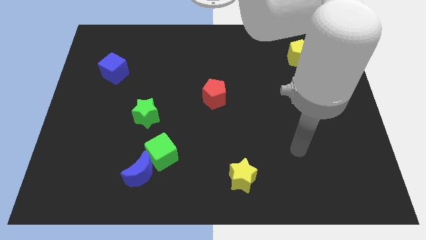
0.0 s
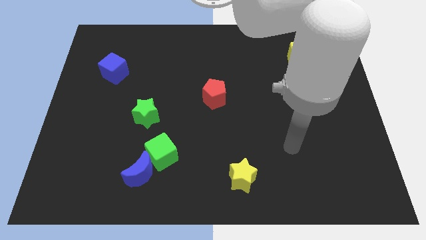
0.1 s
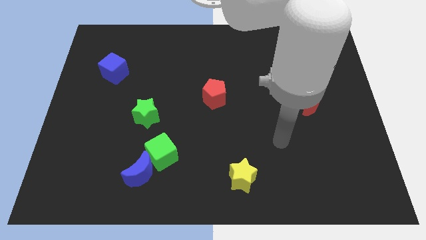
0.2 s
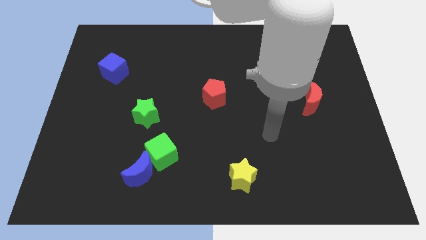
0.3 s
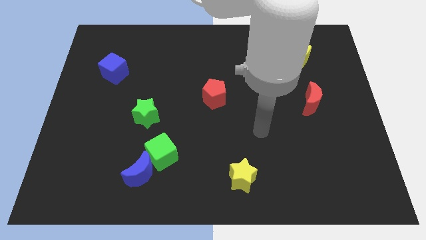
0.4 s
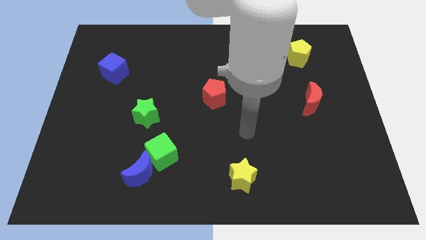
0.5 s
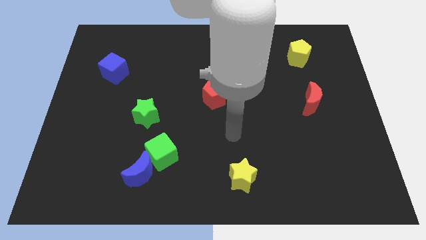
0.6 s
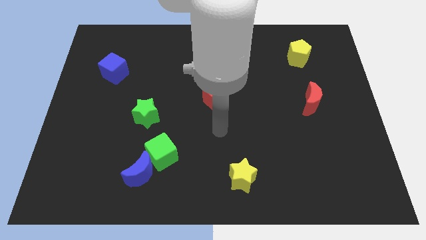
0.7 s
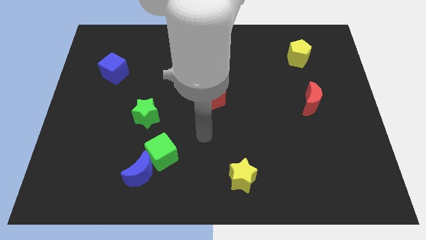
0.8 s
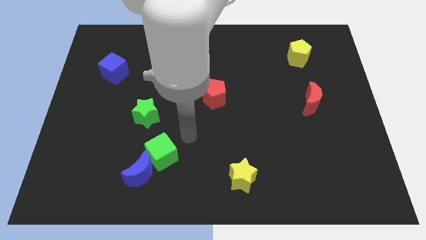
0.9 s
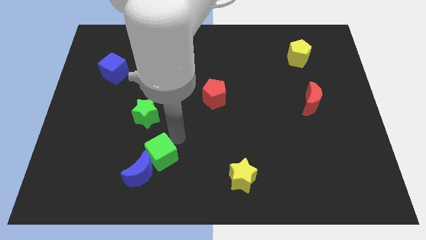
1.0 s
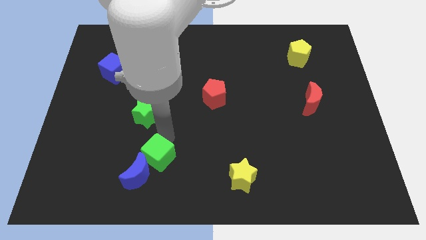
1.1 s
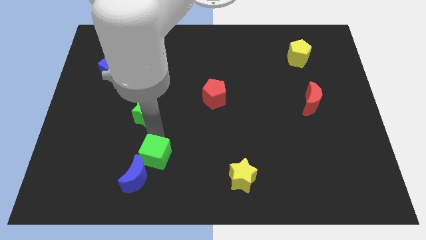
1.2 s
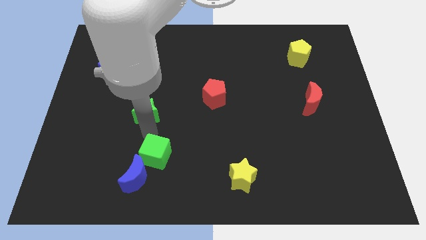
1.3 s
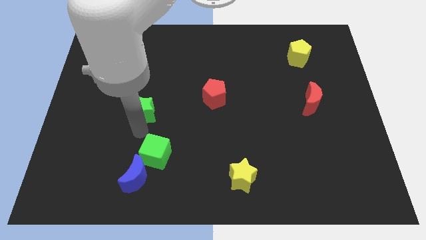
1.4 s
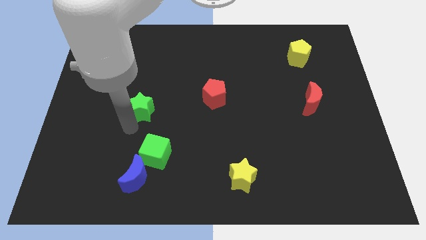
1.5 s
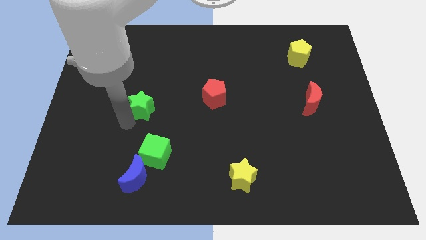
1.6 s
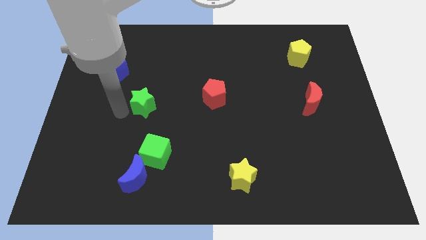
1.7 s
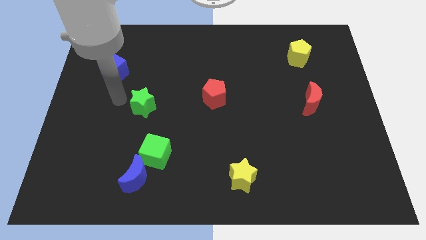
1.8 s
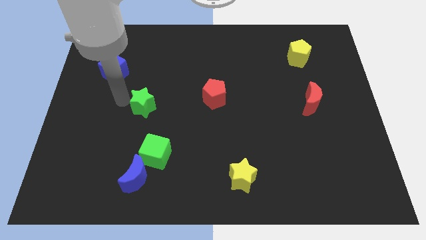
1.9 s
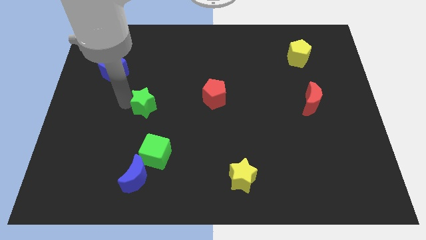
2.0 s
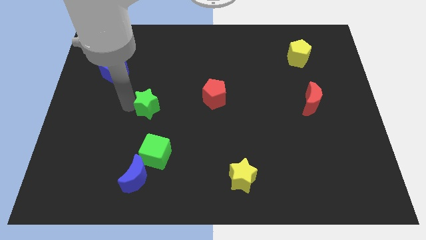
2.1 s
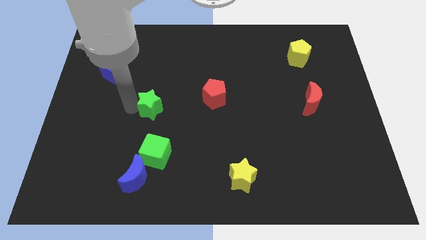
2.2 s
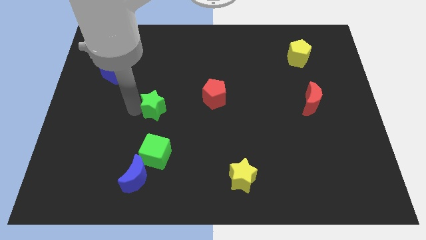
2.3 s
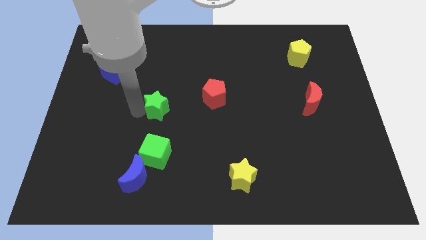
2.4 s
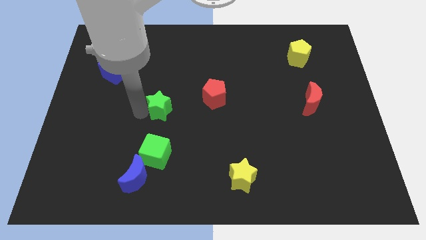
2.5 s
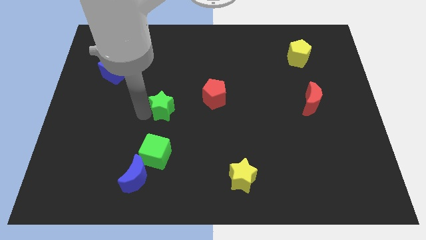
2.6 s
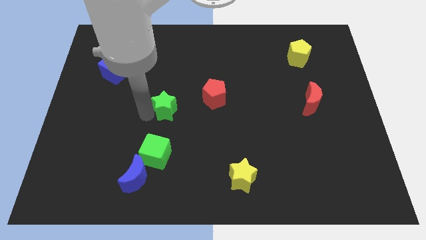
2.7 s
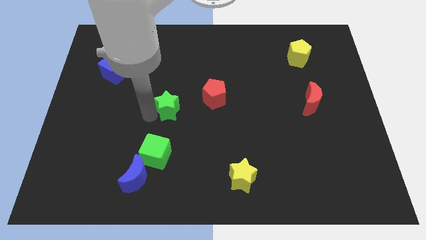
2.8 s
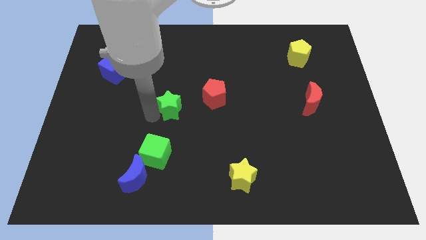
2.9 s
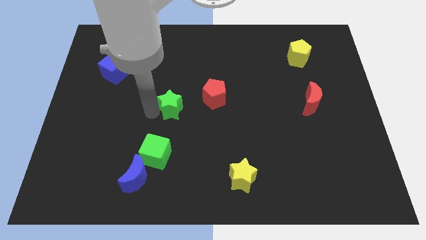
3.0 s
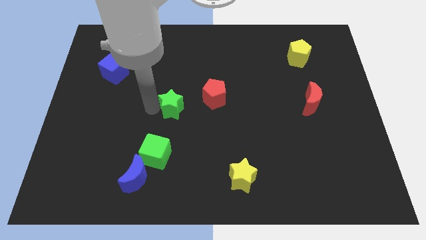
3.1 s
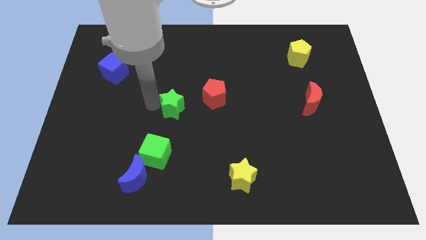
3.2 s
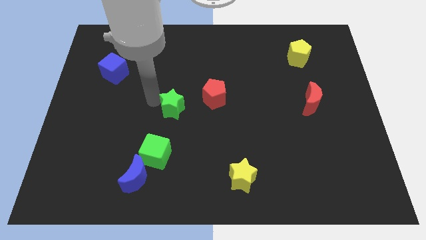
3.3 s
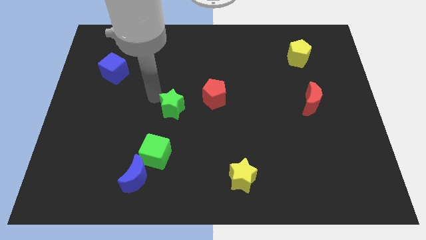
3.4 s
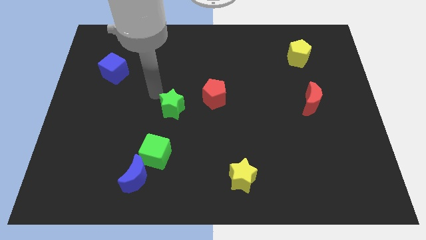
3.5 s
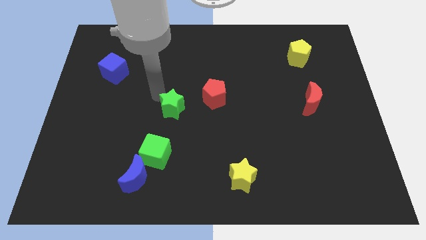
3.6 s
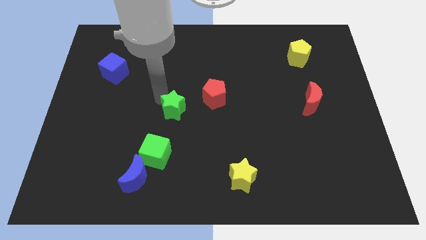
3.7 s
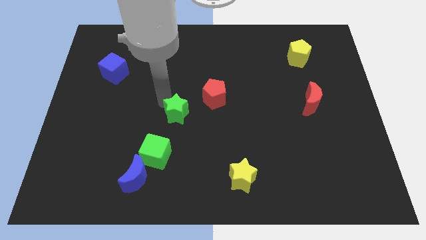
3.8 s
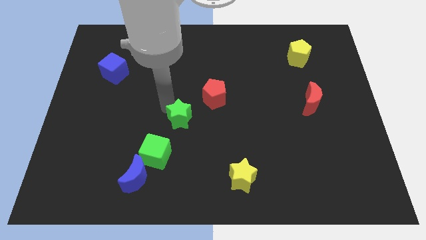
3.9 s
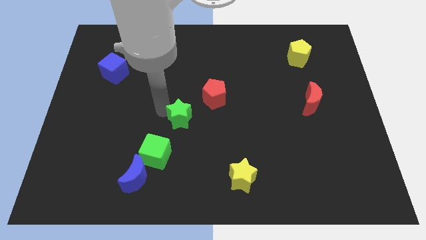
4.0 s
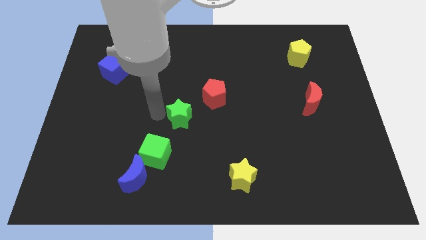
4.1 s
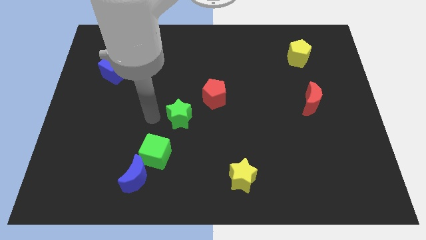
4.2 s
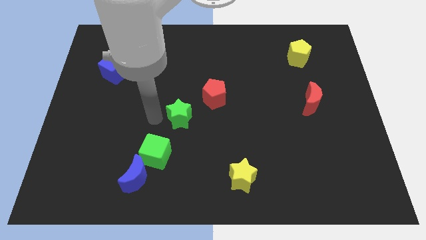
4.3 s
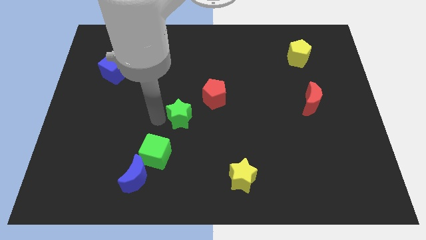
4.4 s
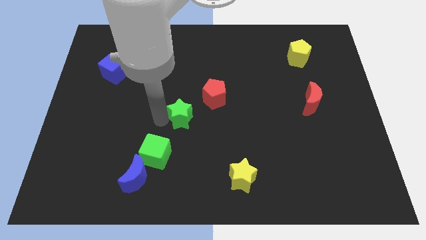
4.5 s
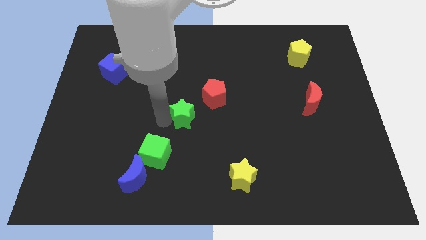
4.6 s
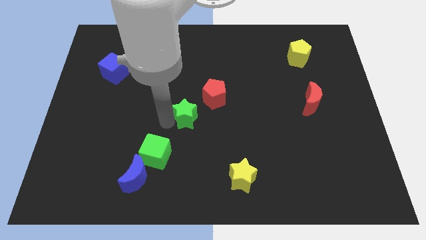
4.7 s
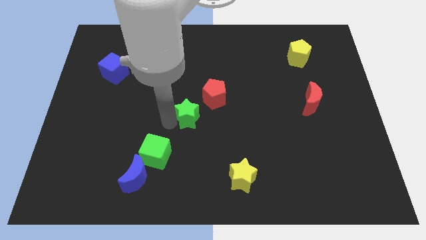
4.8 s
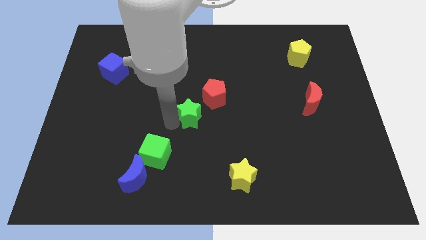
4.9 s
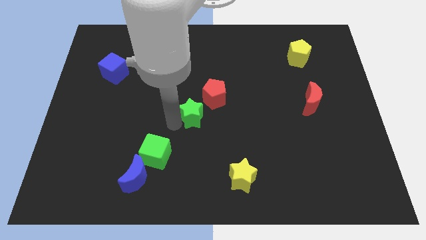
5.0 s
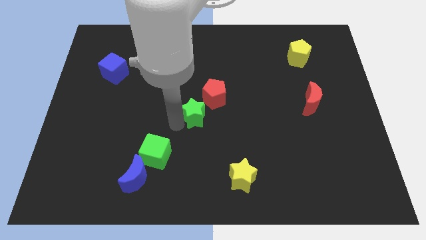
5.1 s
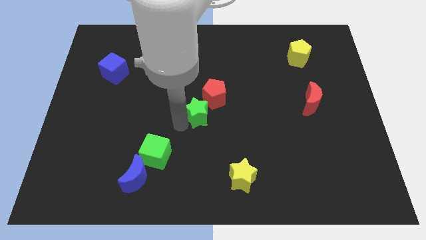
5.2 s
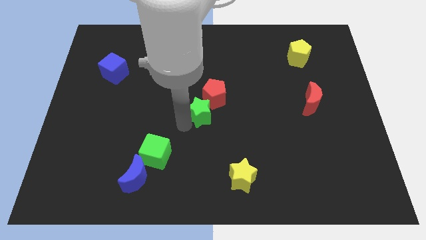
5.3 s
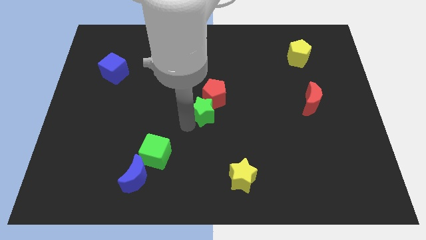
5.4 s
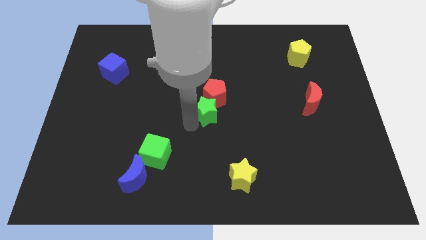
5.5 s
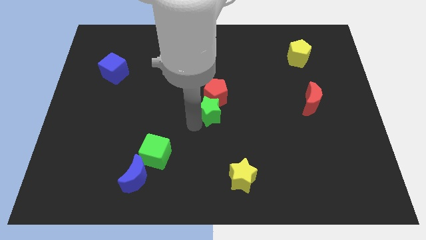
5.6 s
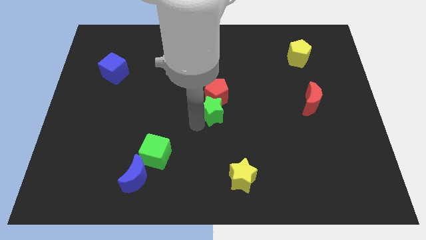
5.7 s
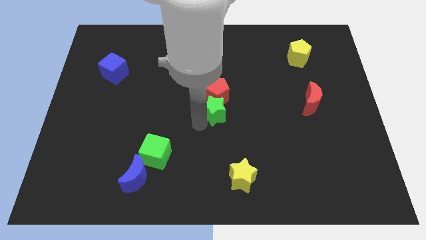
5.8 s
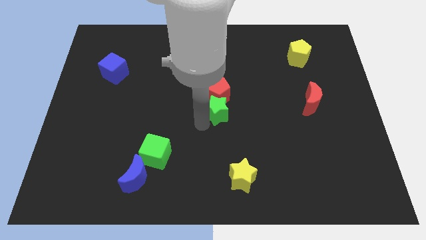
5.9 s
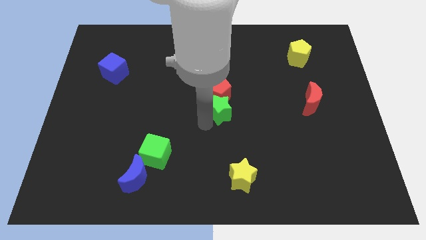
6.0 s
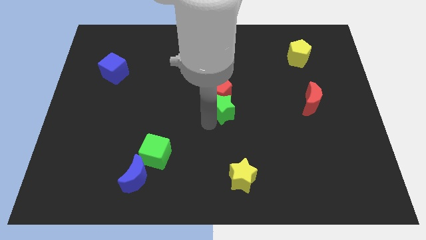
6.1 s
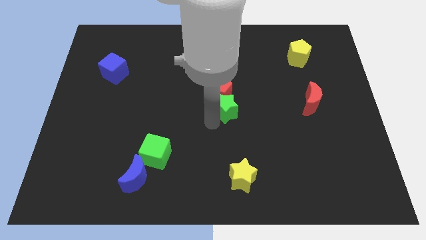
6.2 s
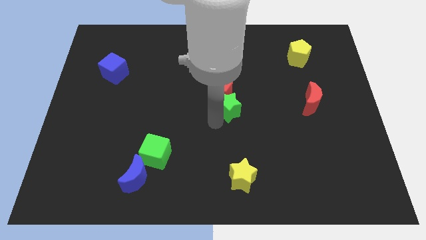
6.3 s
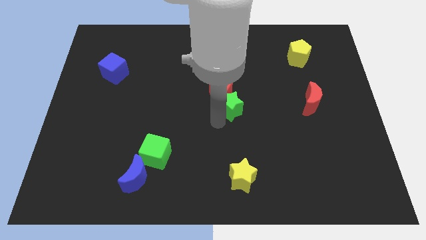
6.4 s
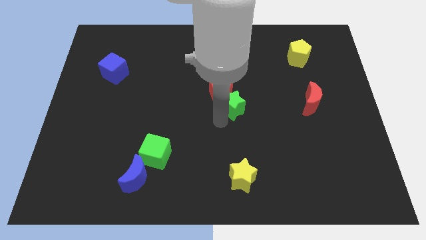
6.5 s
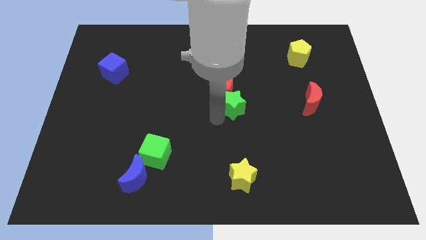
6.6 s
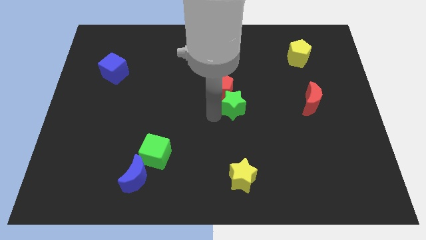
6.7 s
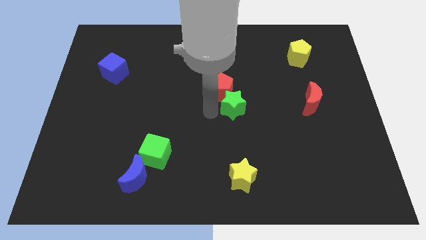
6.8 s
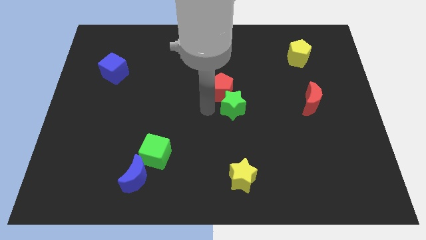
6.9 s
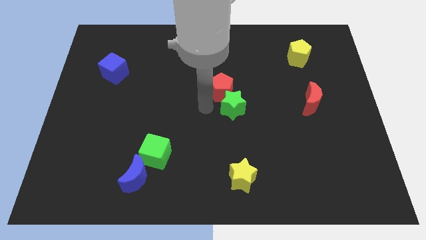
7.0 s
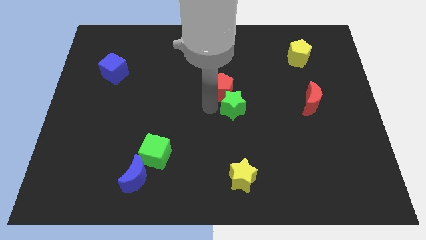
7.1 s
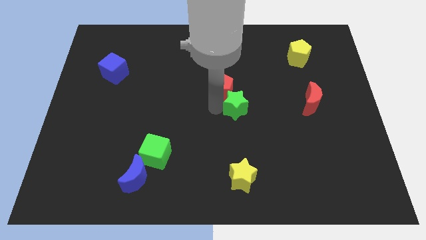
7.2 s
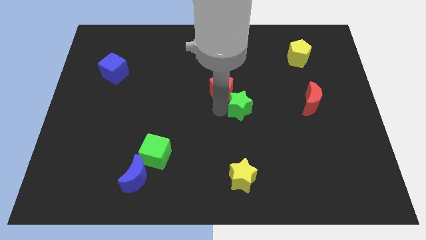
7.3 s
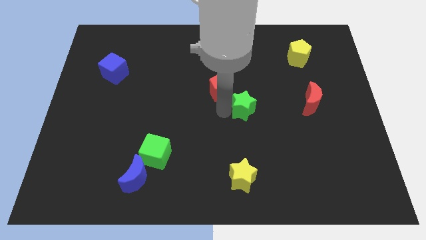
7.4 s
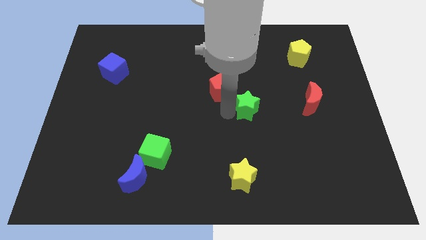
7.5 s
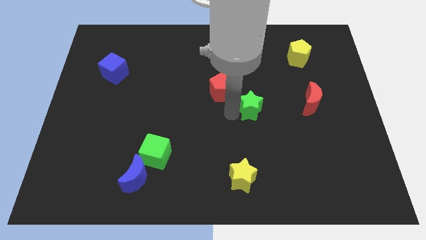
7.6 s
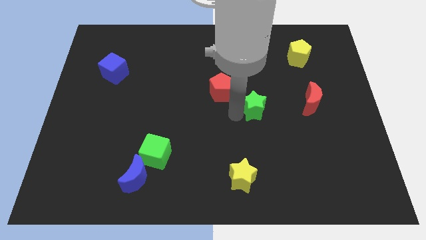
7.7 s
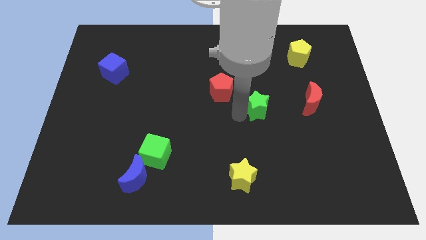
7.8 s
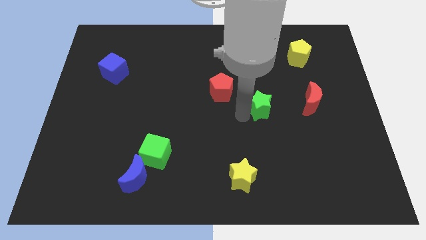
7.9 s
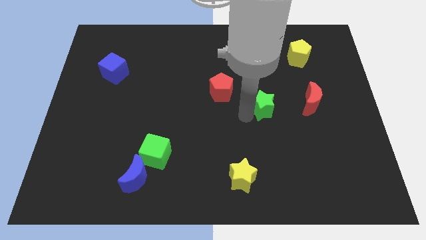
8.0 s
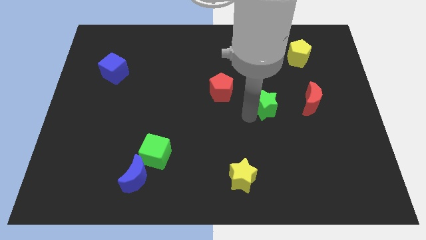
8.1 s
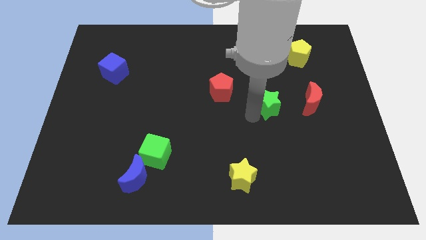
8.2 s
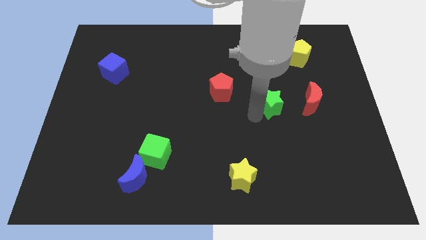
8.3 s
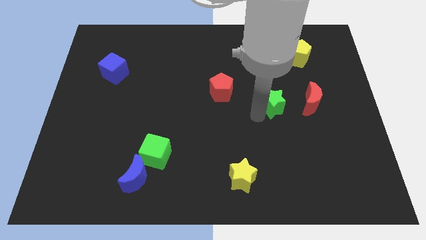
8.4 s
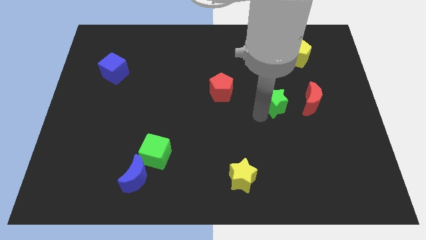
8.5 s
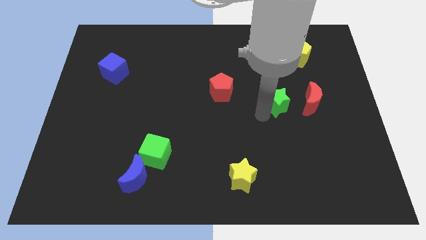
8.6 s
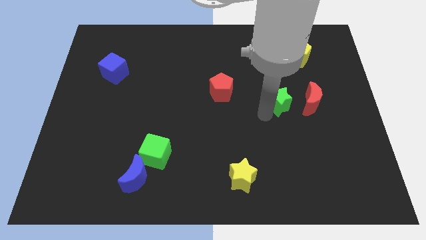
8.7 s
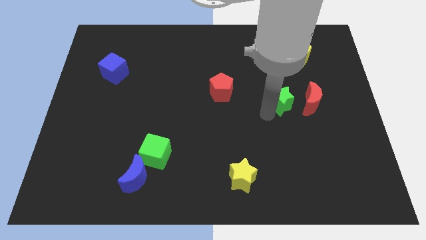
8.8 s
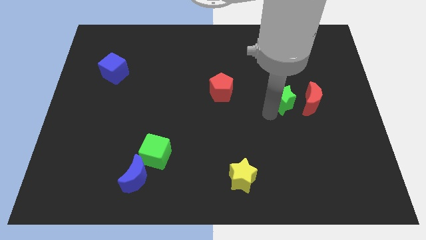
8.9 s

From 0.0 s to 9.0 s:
push the green star to the top left side of the red moon
